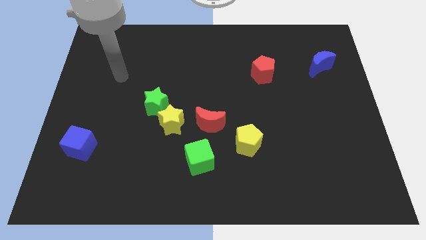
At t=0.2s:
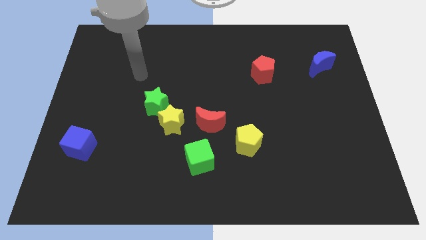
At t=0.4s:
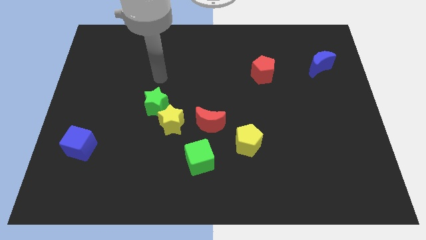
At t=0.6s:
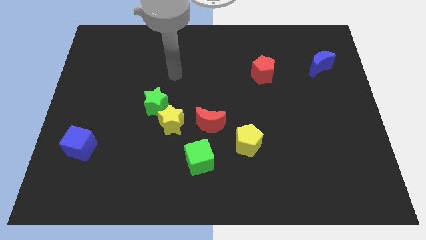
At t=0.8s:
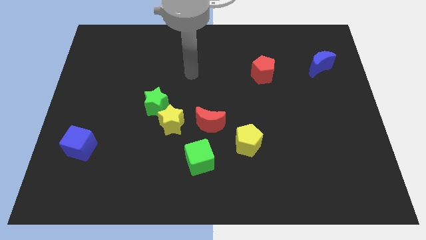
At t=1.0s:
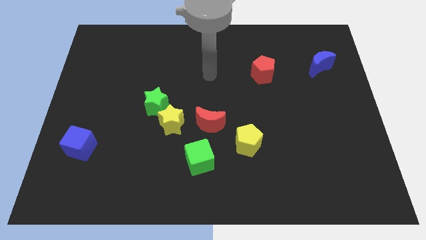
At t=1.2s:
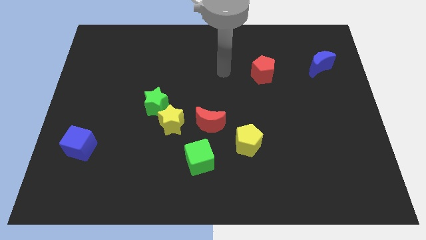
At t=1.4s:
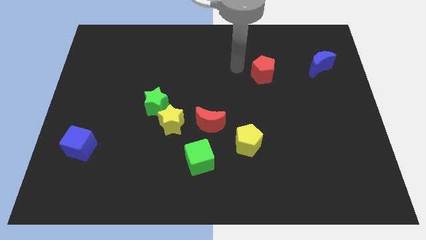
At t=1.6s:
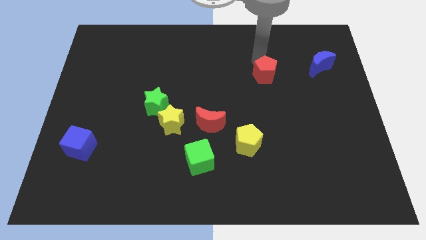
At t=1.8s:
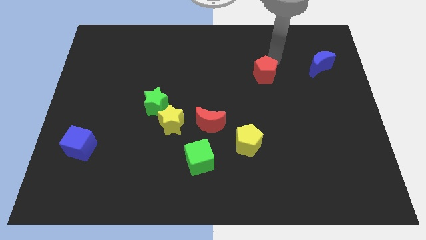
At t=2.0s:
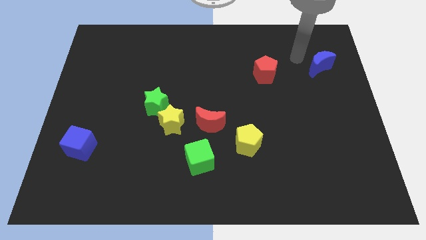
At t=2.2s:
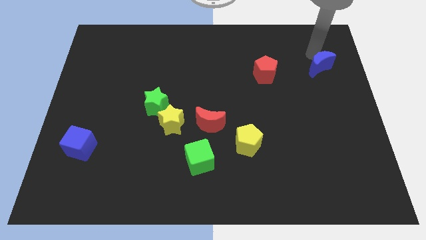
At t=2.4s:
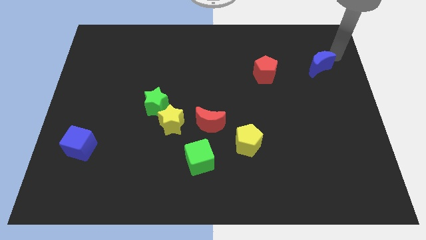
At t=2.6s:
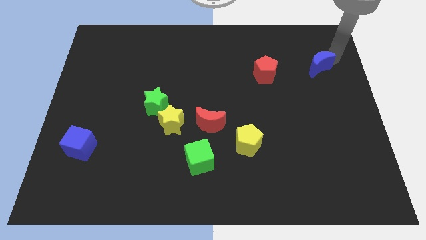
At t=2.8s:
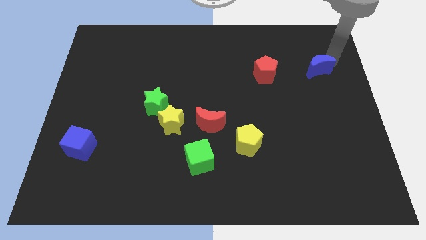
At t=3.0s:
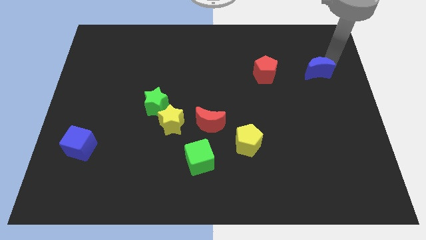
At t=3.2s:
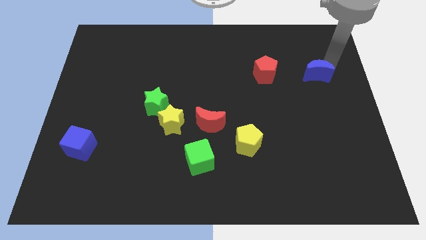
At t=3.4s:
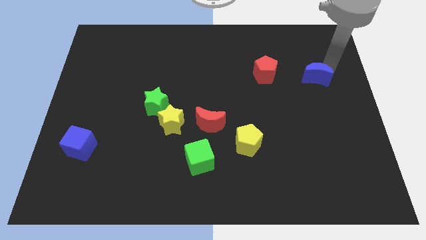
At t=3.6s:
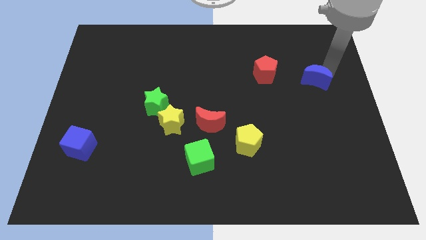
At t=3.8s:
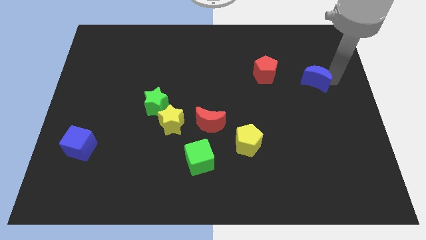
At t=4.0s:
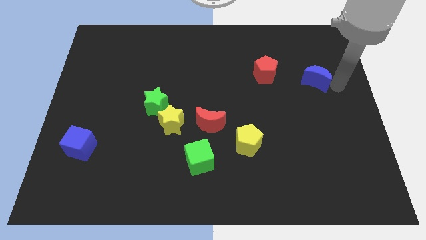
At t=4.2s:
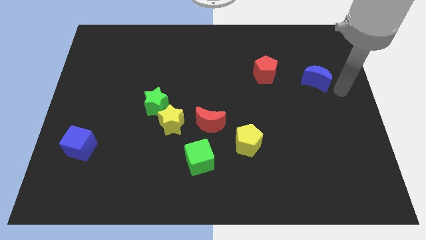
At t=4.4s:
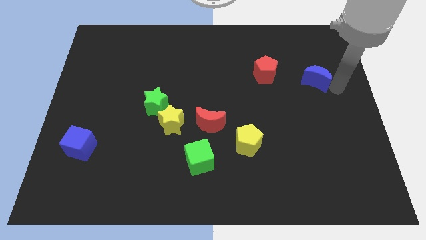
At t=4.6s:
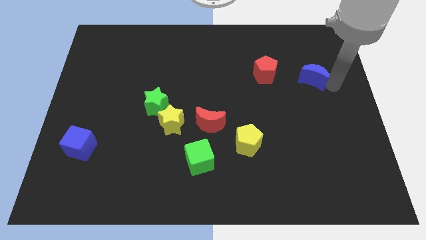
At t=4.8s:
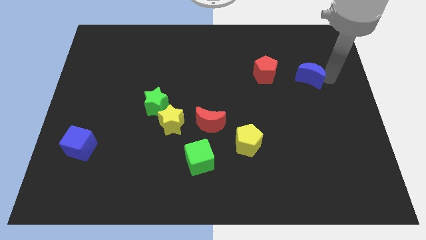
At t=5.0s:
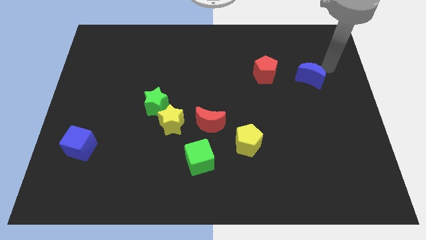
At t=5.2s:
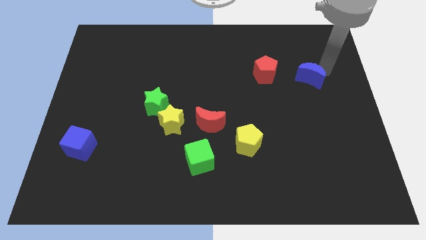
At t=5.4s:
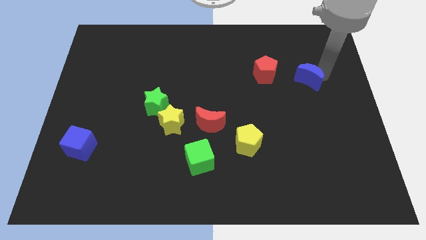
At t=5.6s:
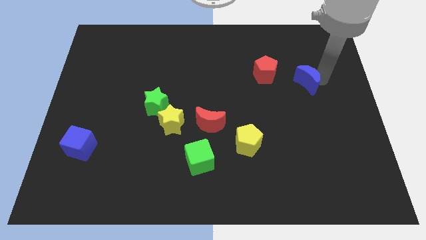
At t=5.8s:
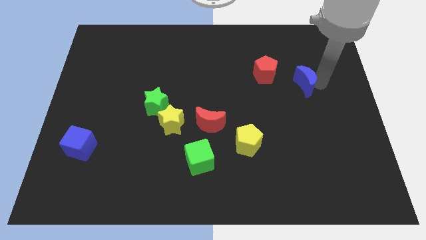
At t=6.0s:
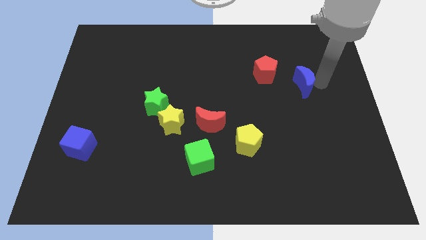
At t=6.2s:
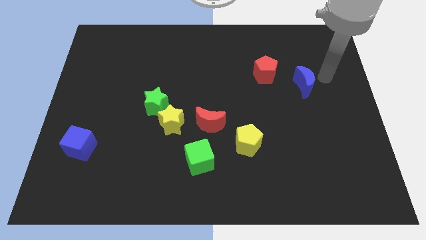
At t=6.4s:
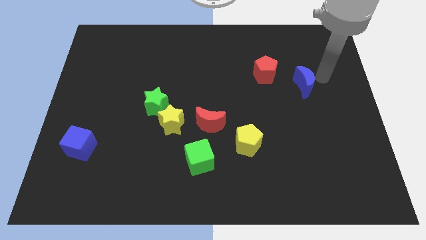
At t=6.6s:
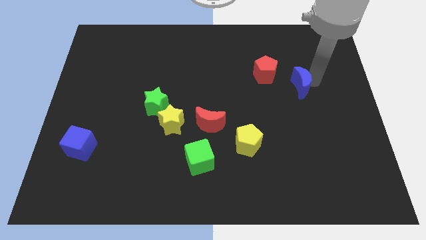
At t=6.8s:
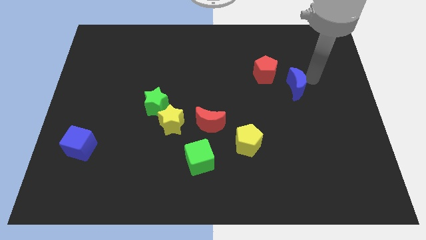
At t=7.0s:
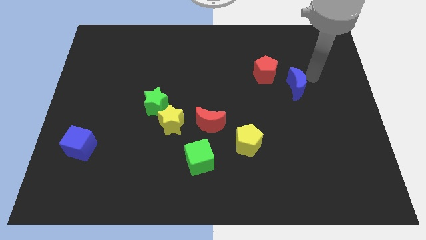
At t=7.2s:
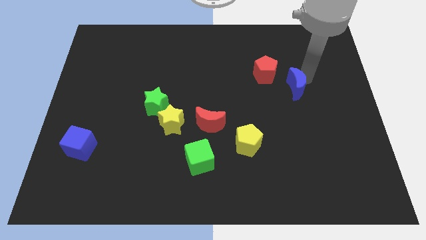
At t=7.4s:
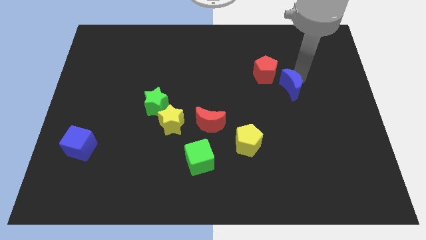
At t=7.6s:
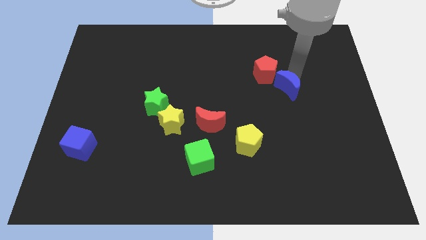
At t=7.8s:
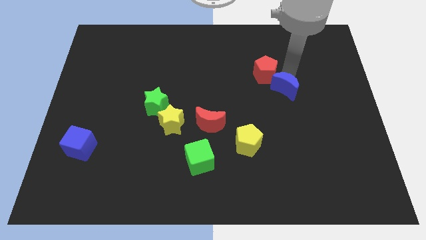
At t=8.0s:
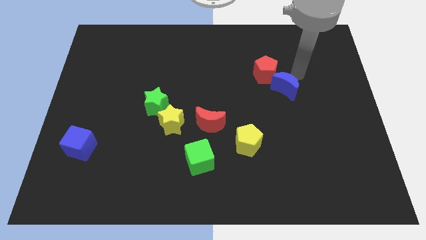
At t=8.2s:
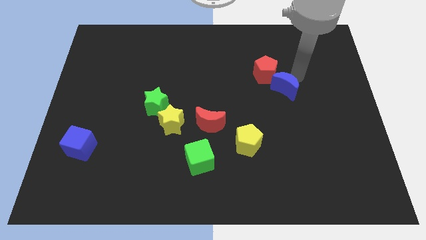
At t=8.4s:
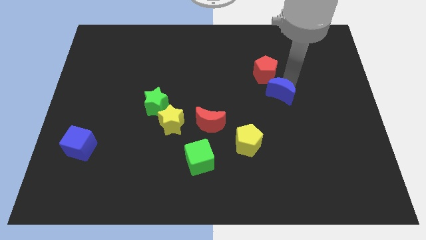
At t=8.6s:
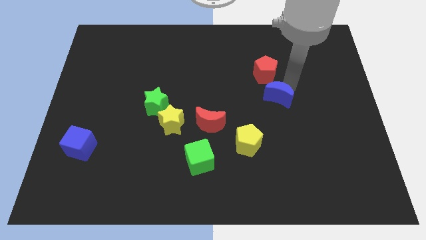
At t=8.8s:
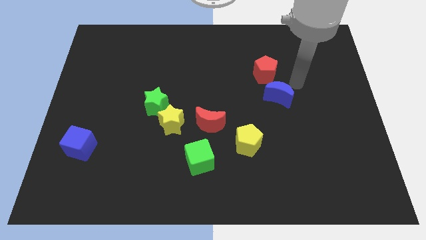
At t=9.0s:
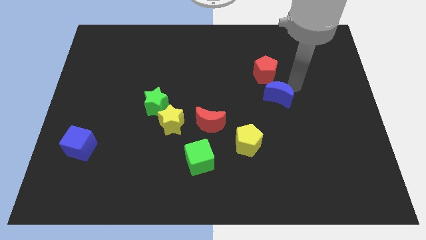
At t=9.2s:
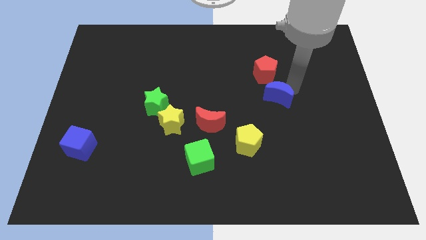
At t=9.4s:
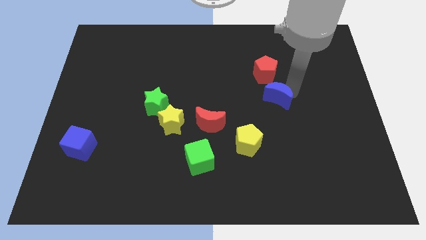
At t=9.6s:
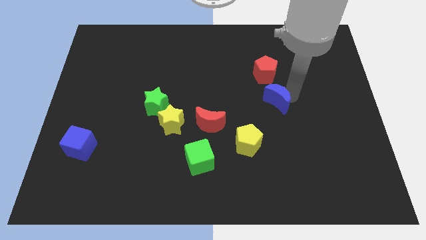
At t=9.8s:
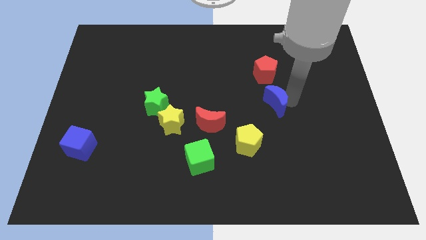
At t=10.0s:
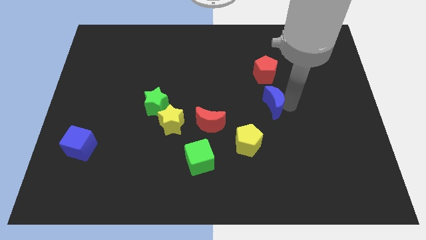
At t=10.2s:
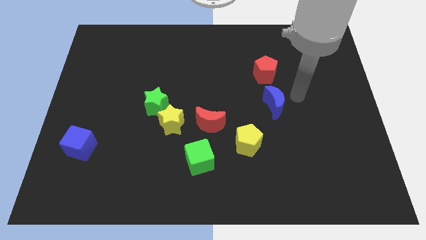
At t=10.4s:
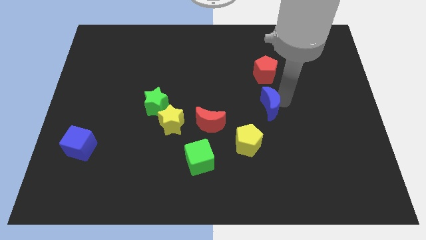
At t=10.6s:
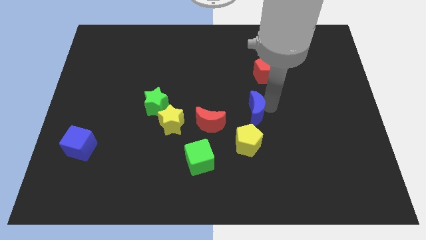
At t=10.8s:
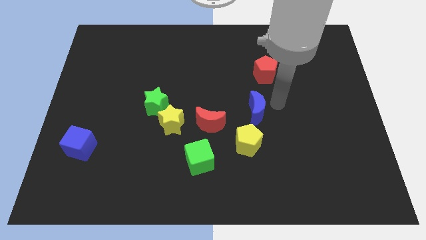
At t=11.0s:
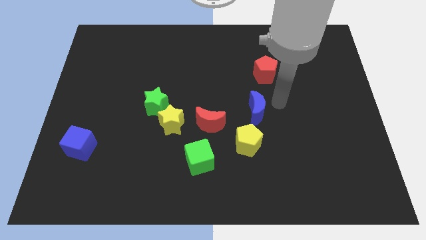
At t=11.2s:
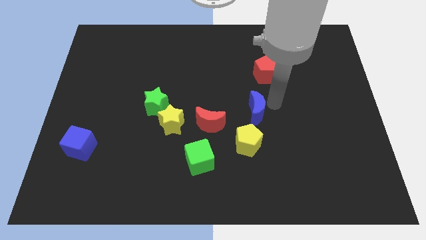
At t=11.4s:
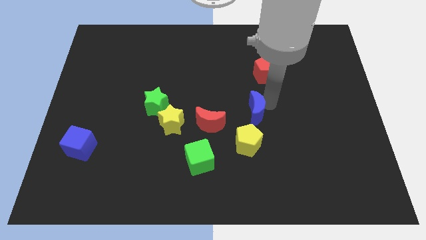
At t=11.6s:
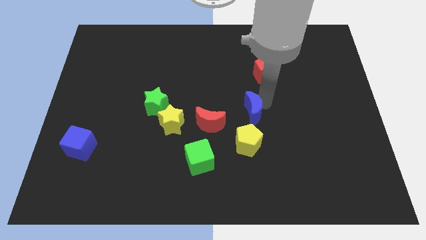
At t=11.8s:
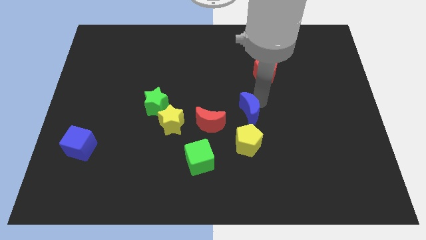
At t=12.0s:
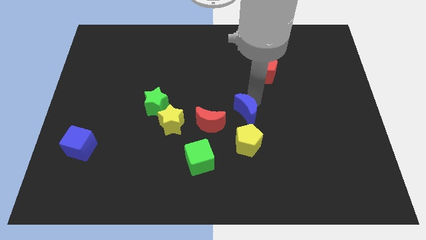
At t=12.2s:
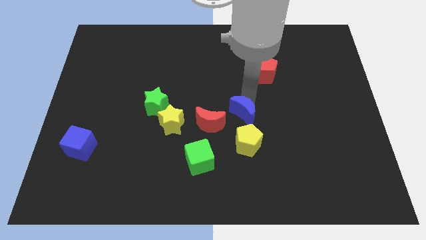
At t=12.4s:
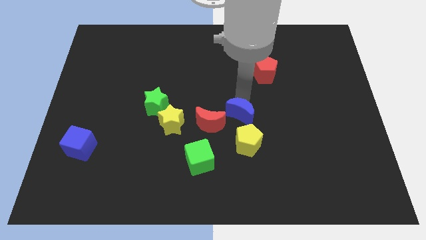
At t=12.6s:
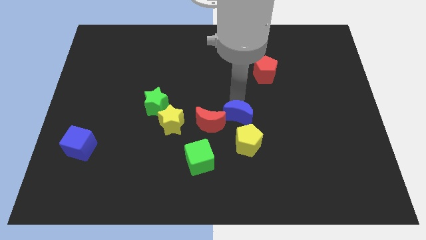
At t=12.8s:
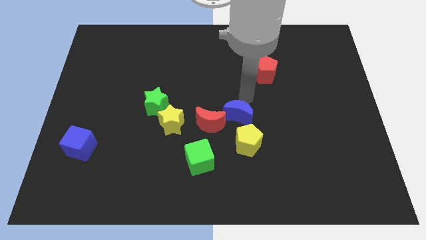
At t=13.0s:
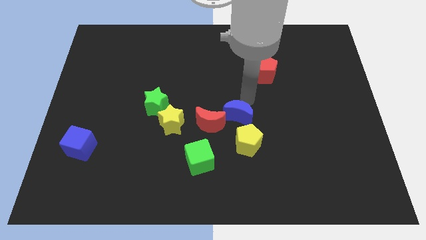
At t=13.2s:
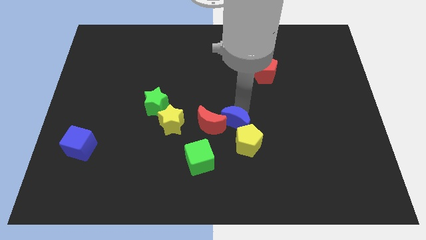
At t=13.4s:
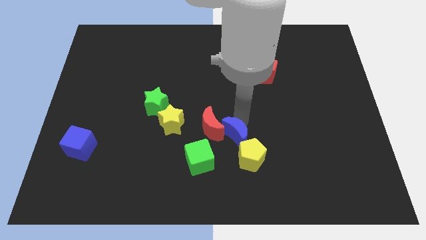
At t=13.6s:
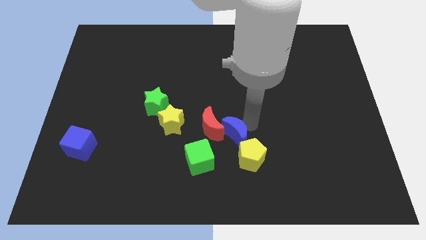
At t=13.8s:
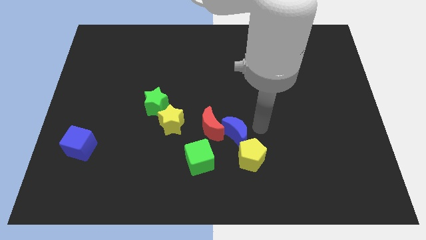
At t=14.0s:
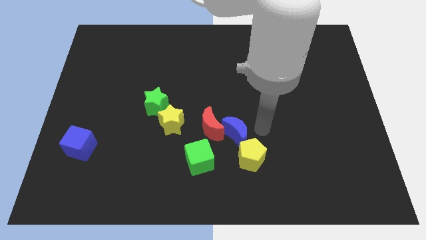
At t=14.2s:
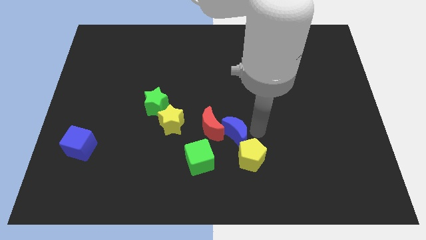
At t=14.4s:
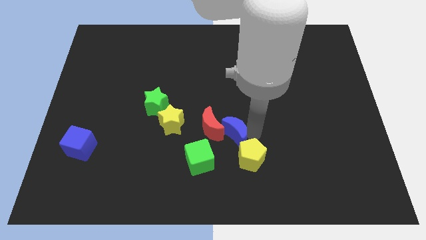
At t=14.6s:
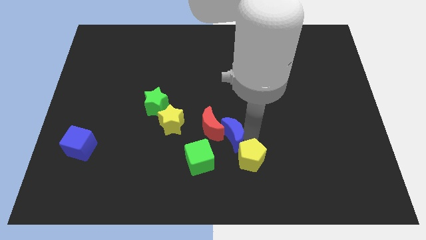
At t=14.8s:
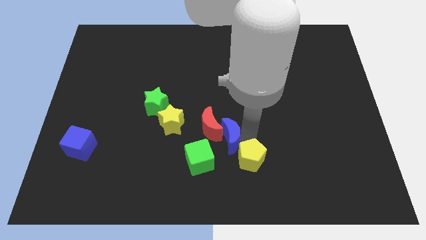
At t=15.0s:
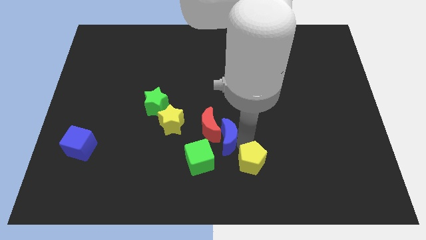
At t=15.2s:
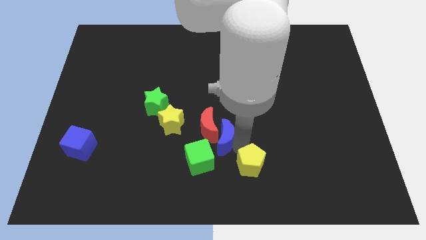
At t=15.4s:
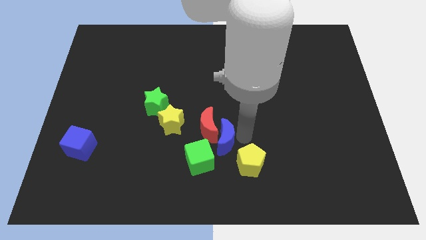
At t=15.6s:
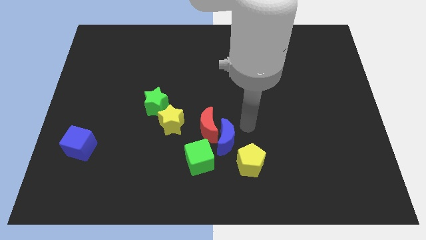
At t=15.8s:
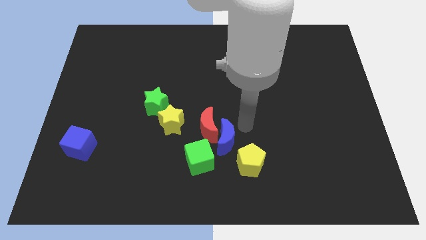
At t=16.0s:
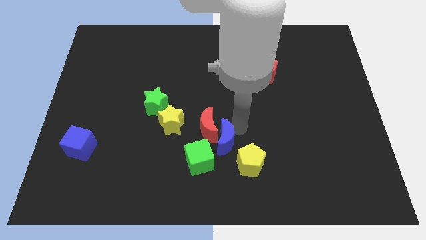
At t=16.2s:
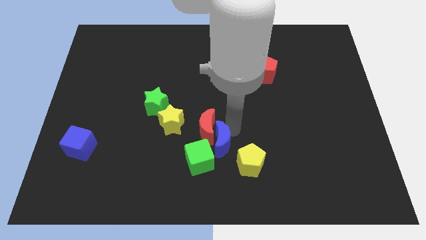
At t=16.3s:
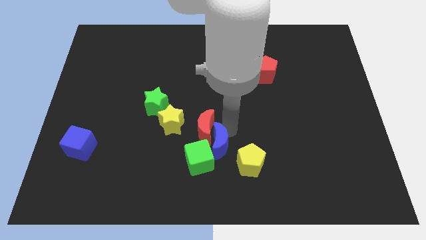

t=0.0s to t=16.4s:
put the blue moon to the green cube
